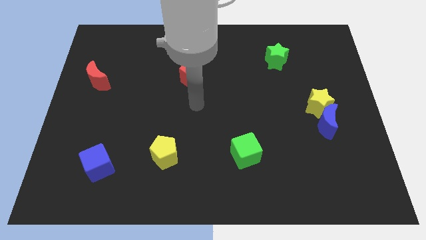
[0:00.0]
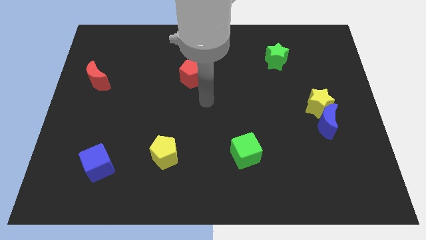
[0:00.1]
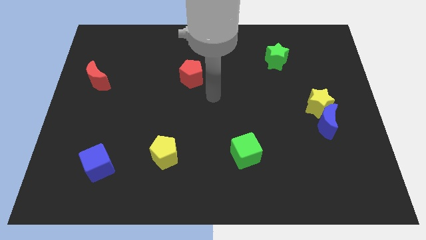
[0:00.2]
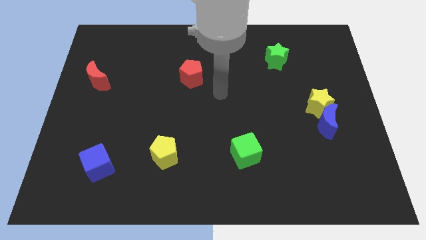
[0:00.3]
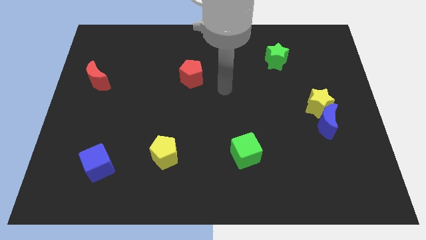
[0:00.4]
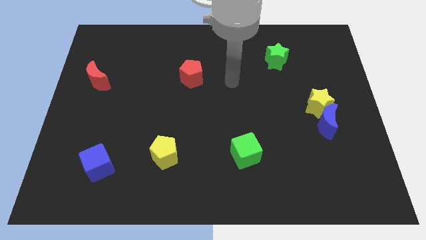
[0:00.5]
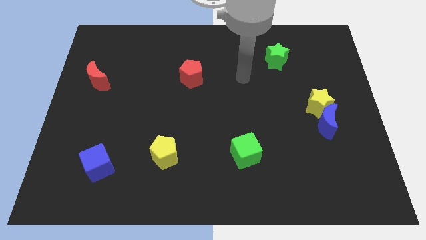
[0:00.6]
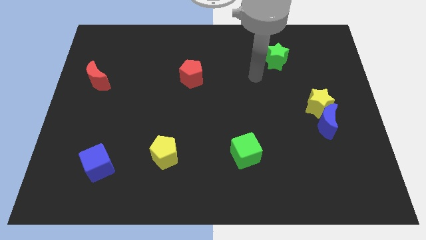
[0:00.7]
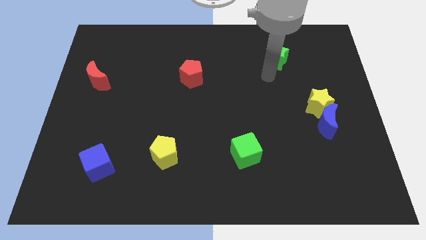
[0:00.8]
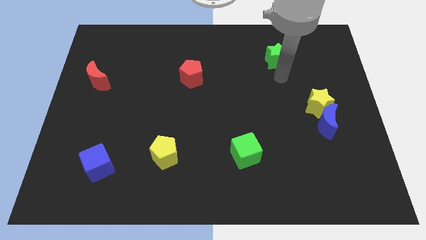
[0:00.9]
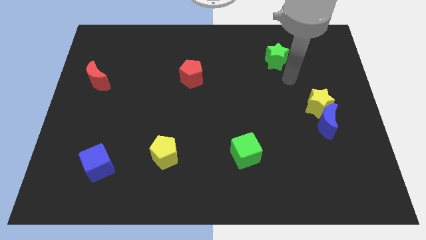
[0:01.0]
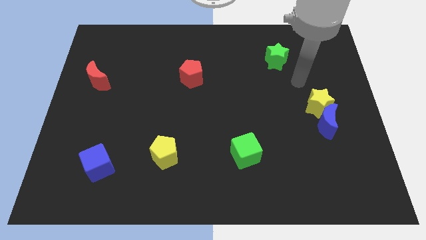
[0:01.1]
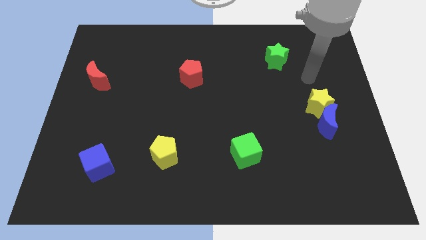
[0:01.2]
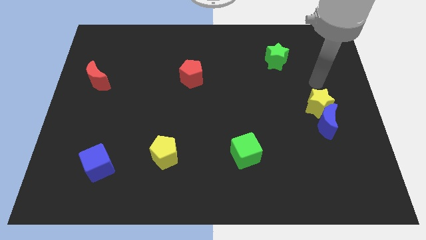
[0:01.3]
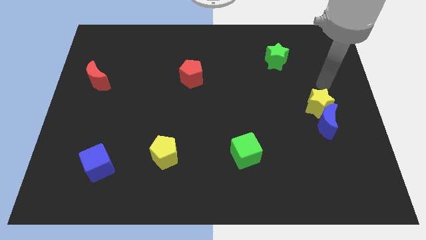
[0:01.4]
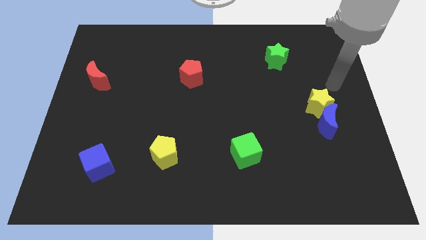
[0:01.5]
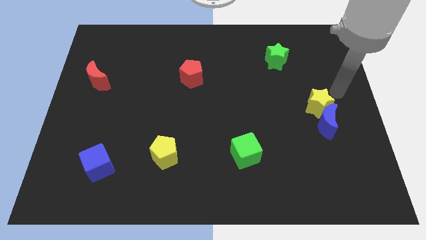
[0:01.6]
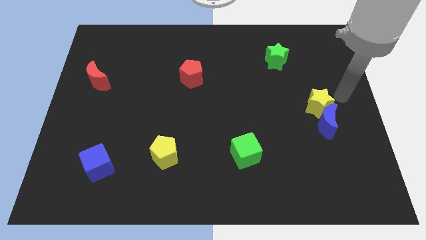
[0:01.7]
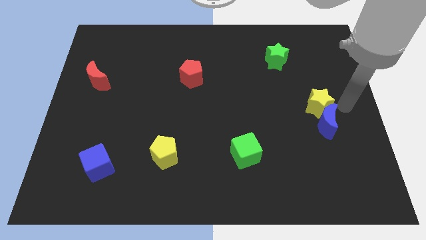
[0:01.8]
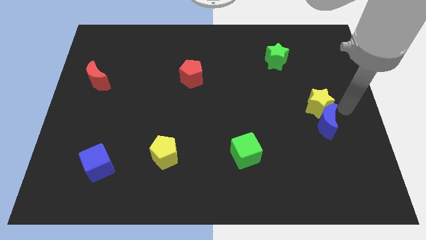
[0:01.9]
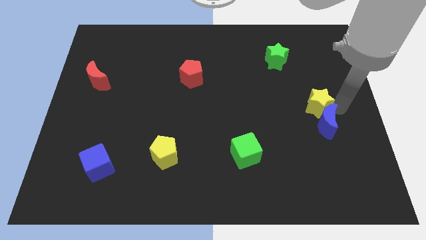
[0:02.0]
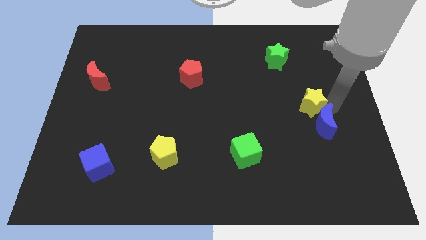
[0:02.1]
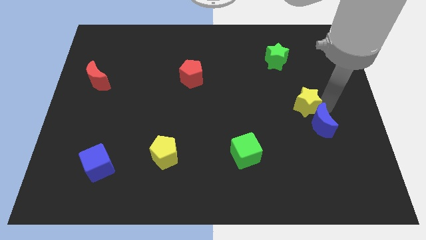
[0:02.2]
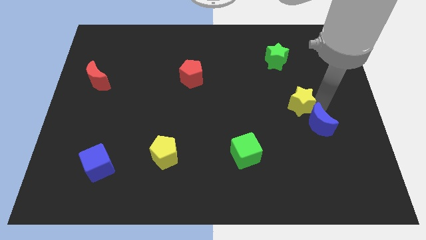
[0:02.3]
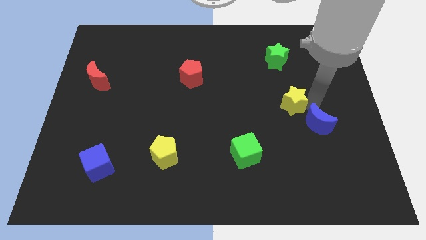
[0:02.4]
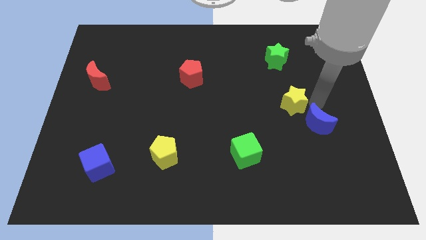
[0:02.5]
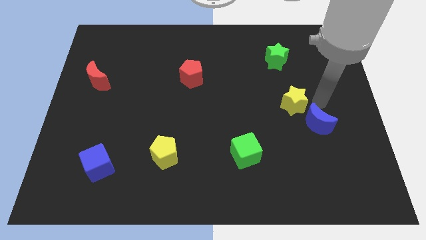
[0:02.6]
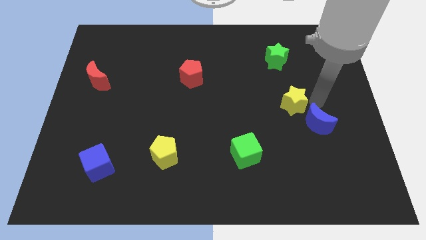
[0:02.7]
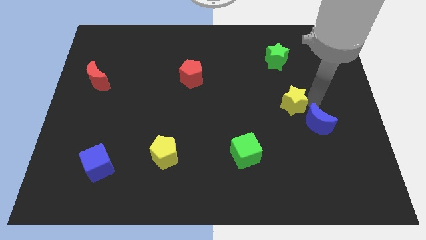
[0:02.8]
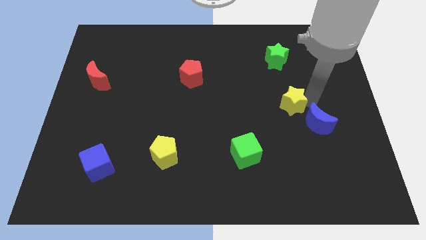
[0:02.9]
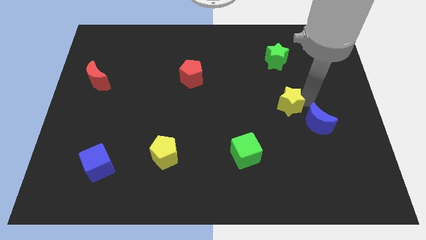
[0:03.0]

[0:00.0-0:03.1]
slightly move the yellow star left

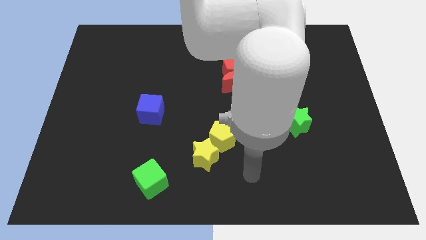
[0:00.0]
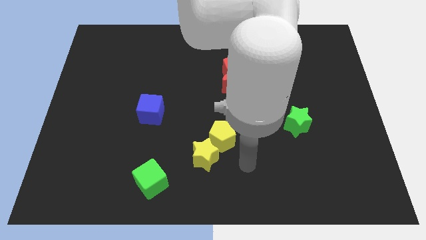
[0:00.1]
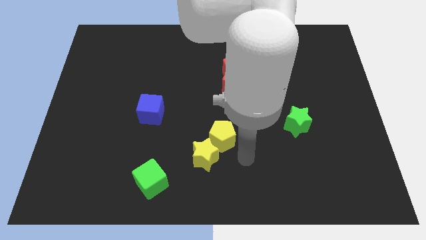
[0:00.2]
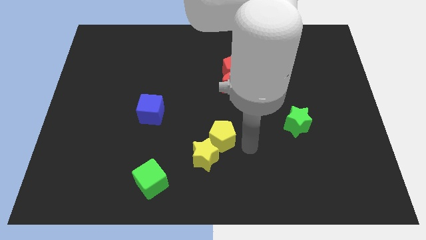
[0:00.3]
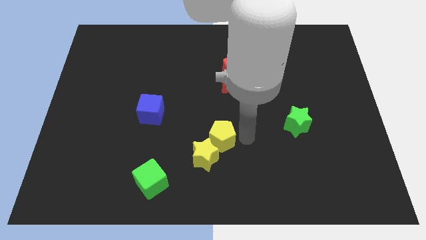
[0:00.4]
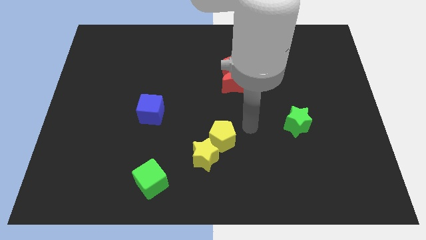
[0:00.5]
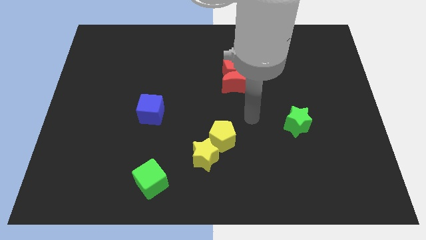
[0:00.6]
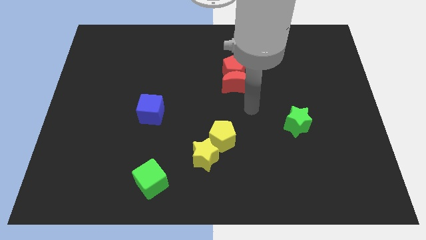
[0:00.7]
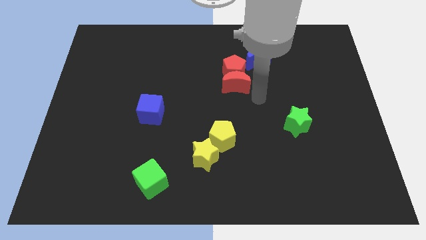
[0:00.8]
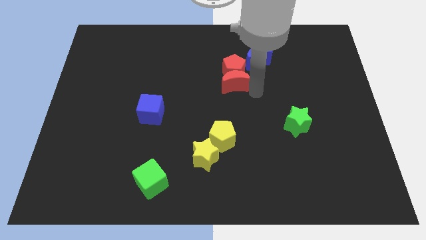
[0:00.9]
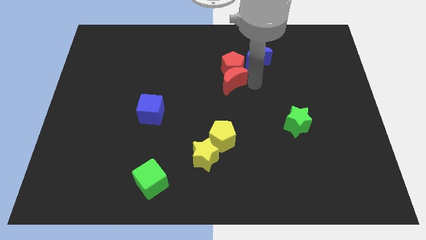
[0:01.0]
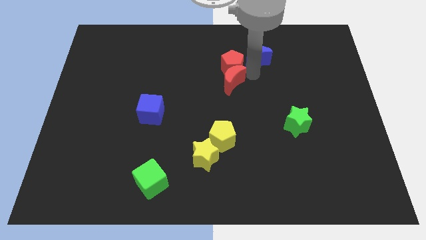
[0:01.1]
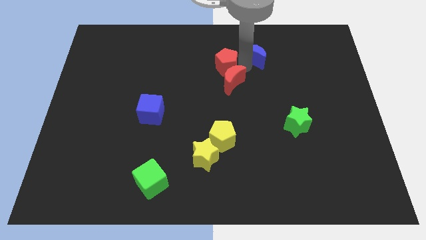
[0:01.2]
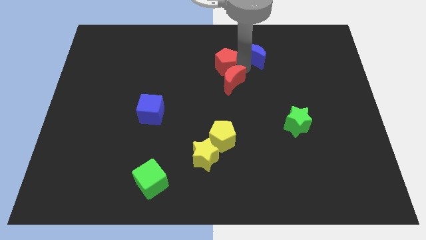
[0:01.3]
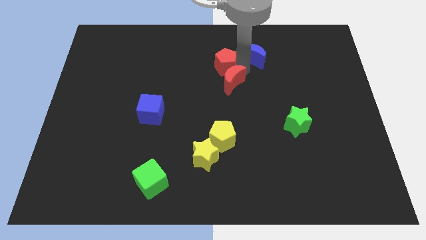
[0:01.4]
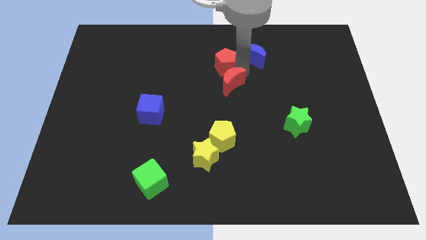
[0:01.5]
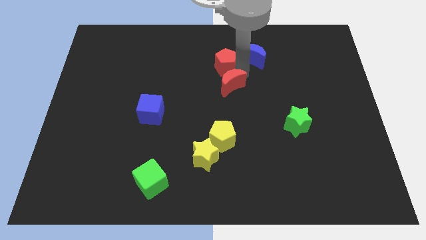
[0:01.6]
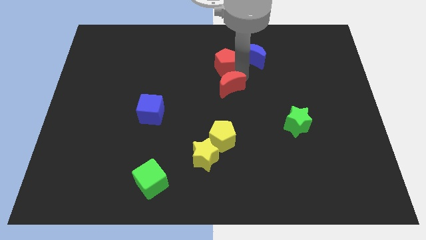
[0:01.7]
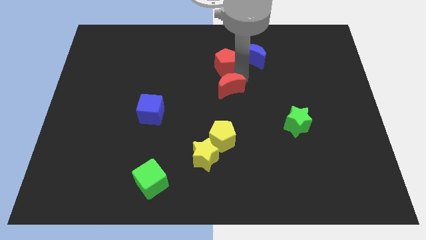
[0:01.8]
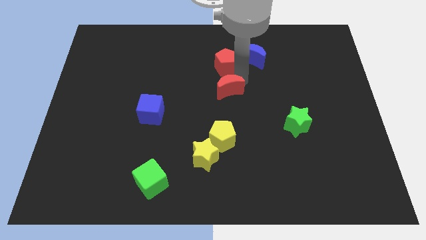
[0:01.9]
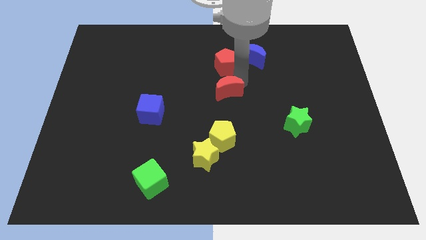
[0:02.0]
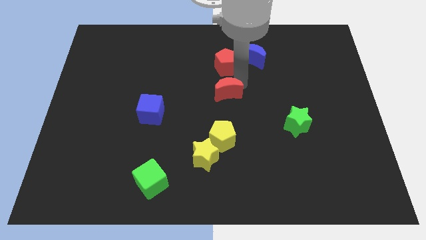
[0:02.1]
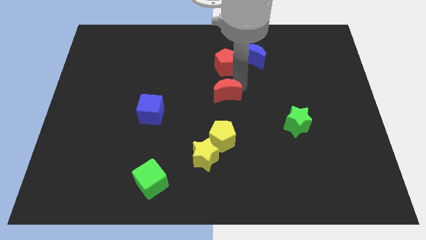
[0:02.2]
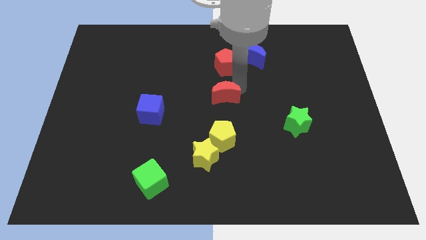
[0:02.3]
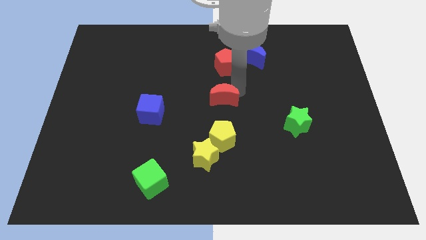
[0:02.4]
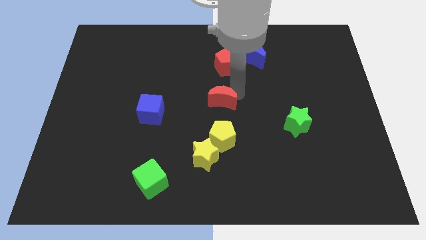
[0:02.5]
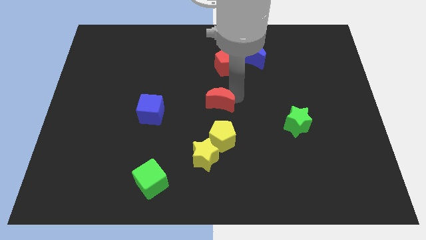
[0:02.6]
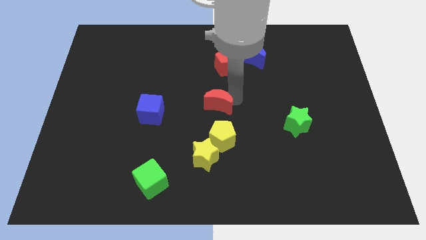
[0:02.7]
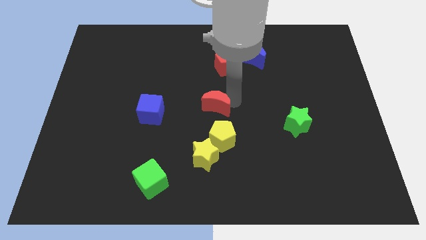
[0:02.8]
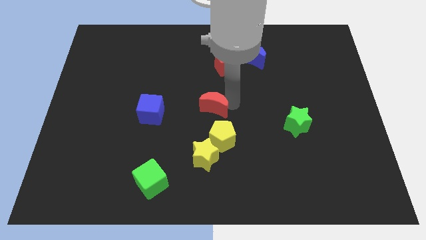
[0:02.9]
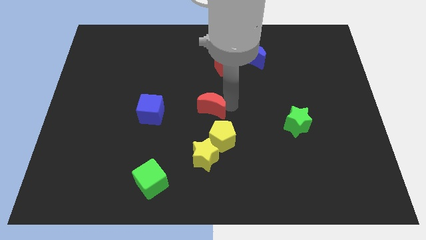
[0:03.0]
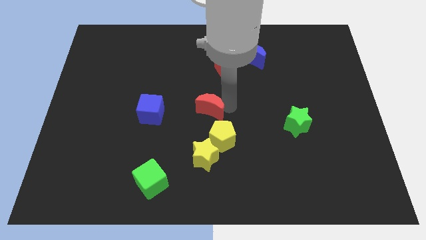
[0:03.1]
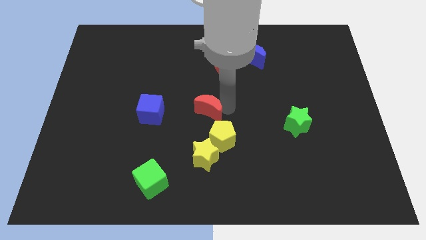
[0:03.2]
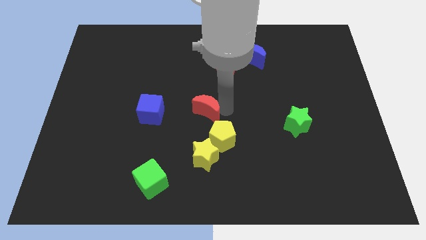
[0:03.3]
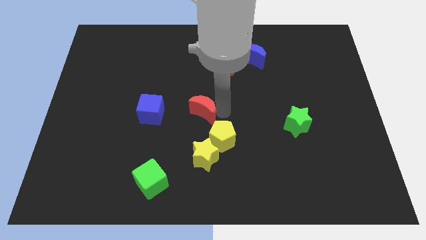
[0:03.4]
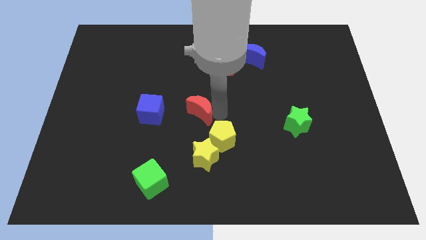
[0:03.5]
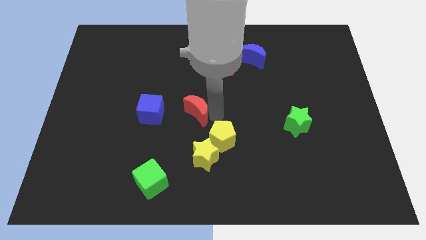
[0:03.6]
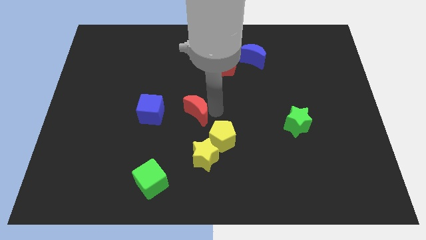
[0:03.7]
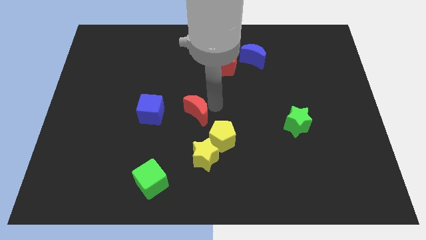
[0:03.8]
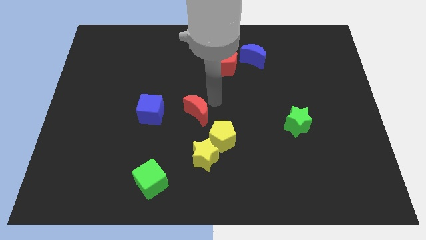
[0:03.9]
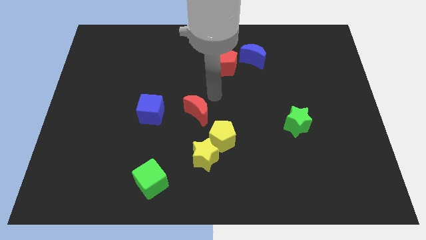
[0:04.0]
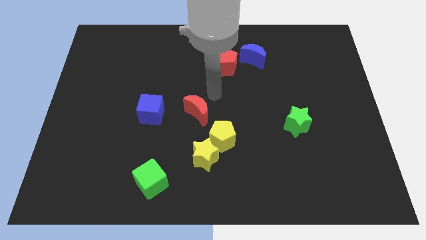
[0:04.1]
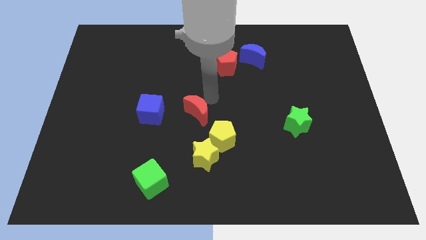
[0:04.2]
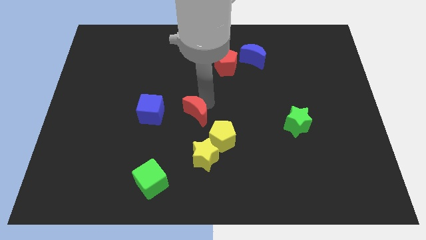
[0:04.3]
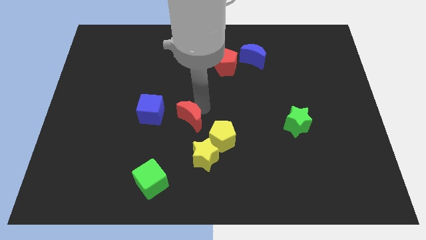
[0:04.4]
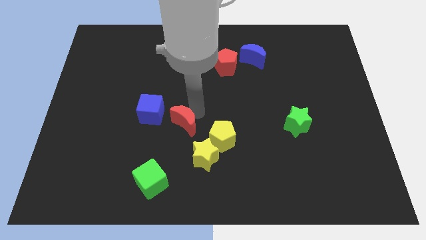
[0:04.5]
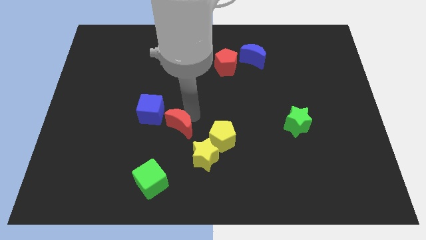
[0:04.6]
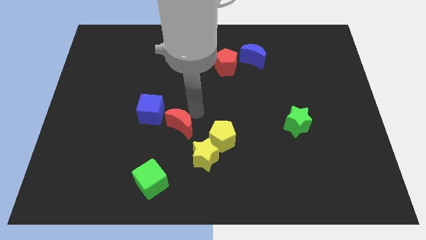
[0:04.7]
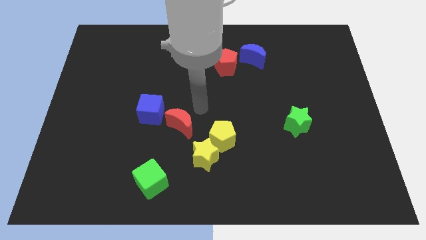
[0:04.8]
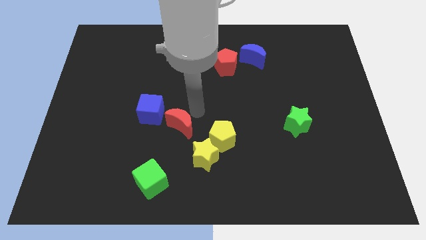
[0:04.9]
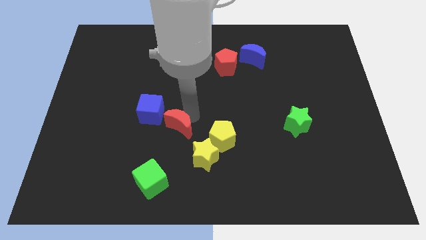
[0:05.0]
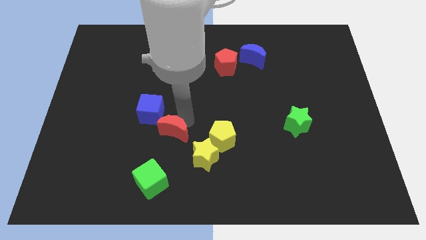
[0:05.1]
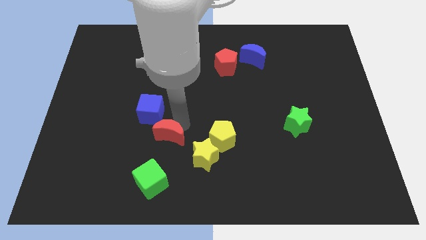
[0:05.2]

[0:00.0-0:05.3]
slide the red moon diagonally down and left
